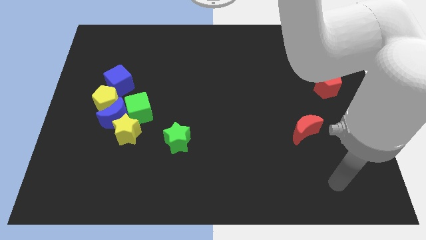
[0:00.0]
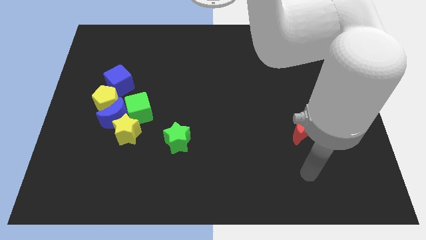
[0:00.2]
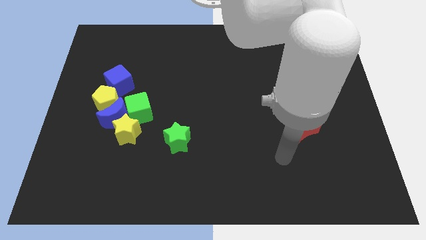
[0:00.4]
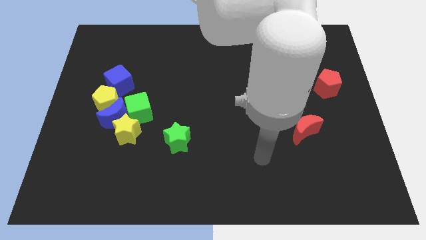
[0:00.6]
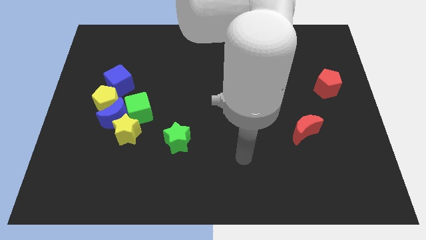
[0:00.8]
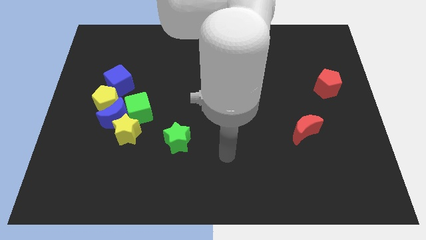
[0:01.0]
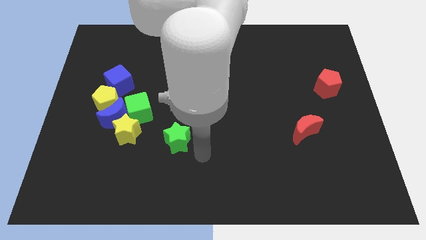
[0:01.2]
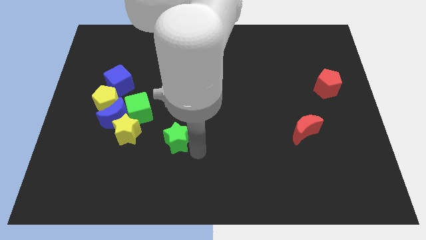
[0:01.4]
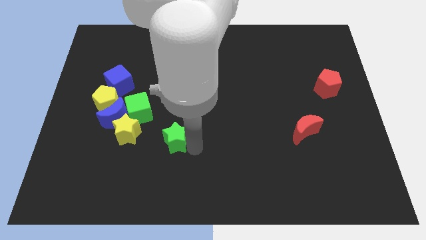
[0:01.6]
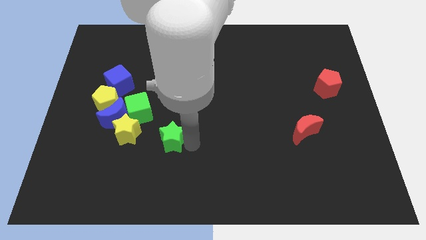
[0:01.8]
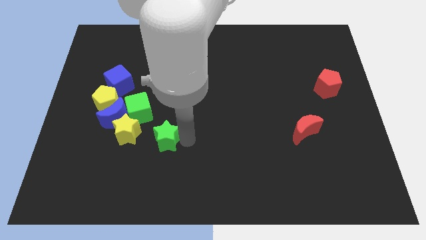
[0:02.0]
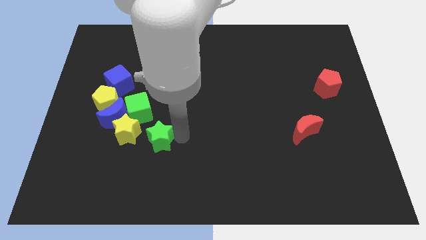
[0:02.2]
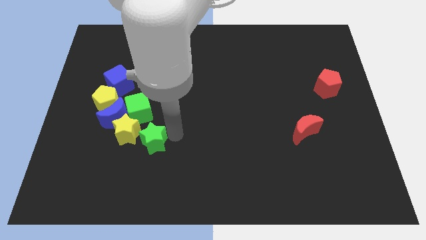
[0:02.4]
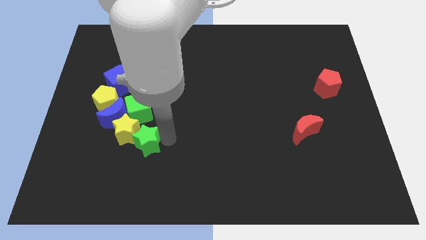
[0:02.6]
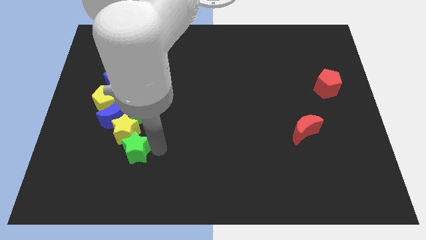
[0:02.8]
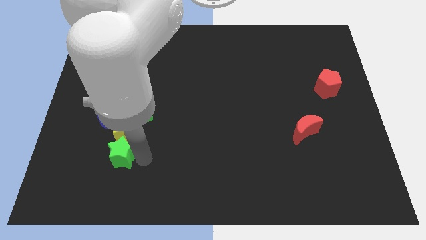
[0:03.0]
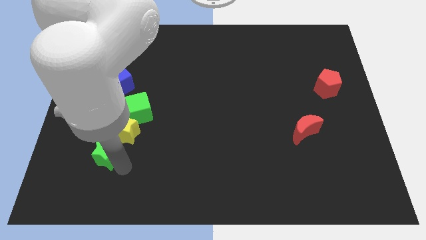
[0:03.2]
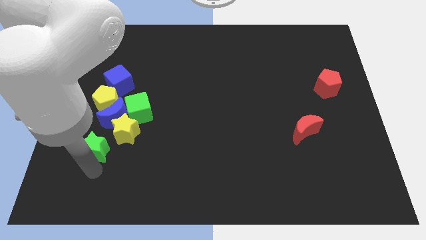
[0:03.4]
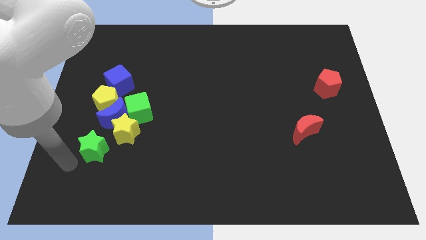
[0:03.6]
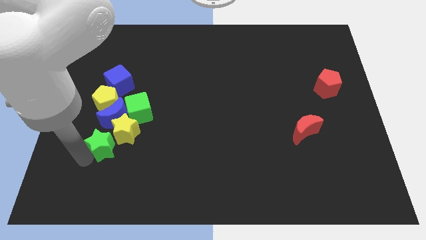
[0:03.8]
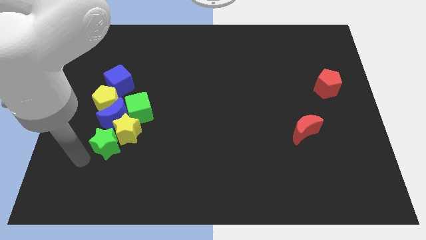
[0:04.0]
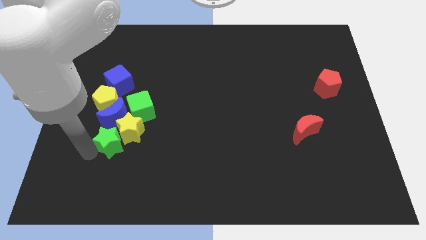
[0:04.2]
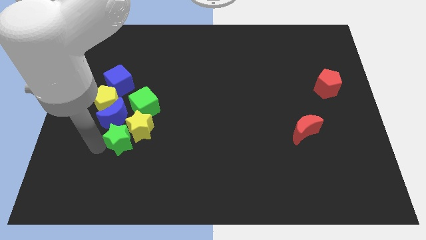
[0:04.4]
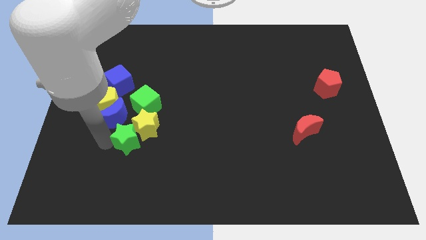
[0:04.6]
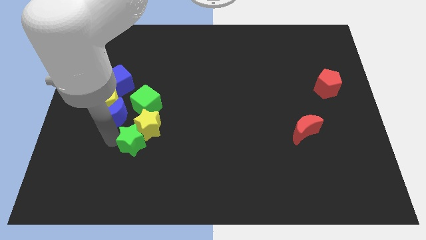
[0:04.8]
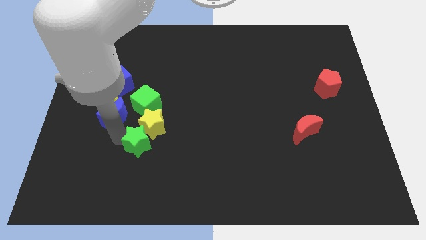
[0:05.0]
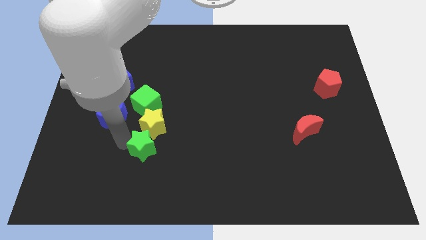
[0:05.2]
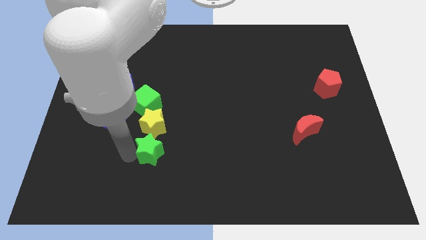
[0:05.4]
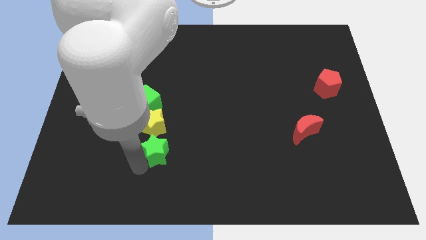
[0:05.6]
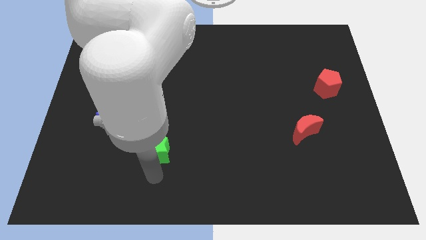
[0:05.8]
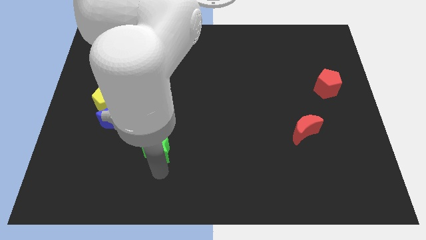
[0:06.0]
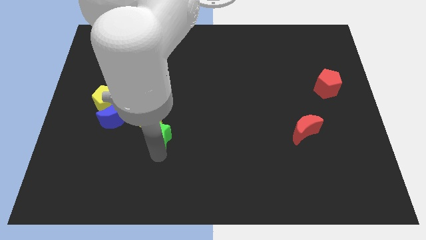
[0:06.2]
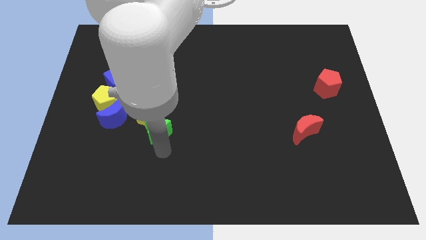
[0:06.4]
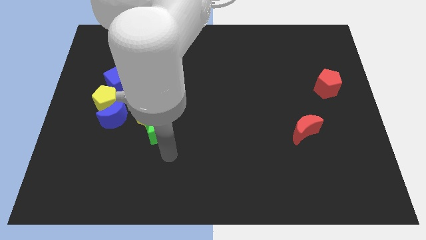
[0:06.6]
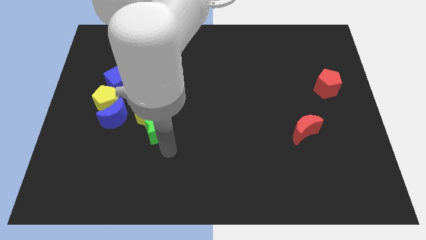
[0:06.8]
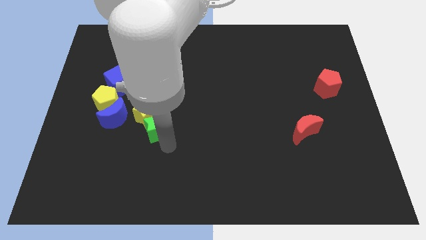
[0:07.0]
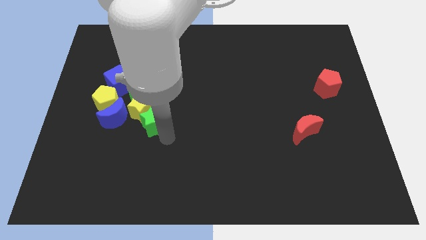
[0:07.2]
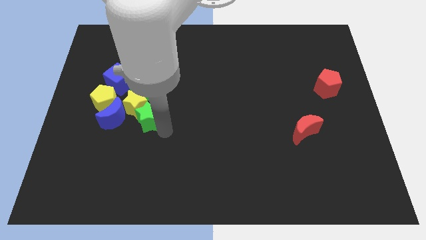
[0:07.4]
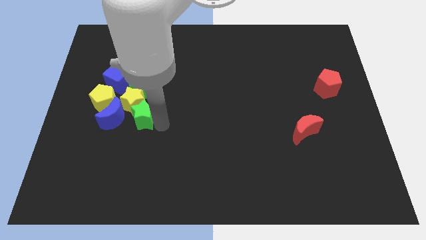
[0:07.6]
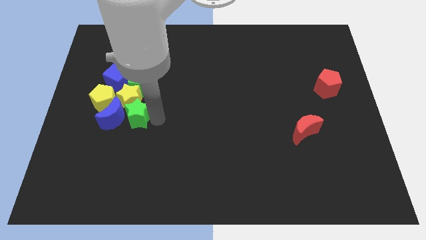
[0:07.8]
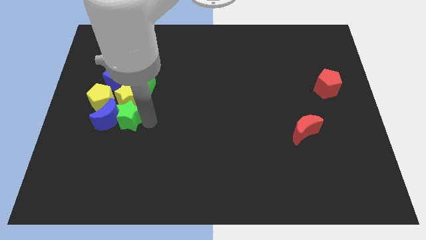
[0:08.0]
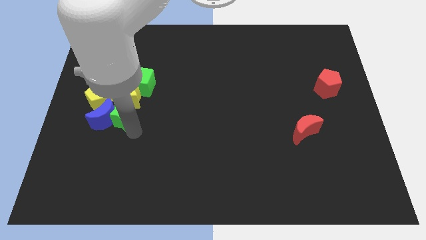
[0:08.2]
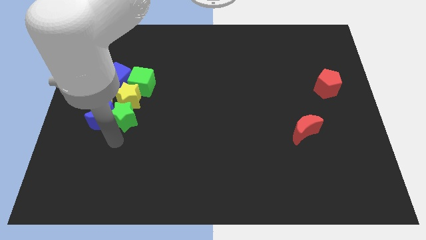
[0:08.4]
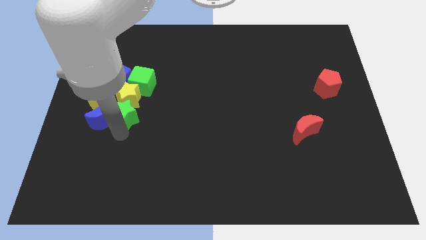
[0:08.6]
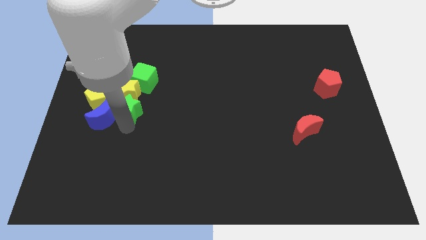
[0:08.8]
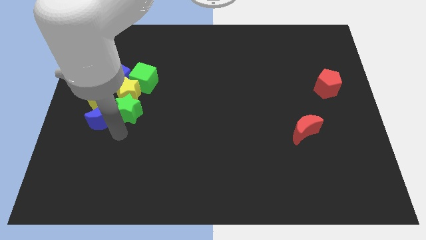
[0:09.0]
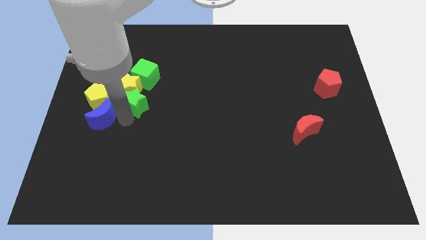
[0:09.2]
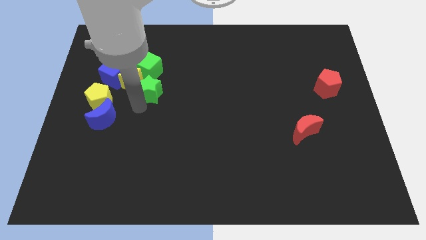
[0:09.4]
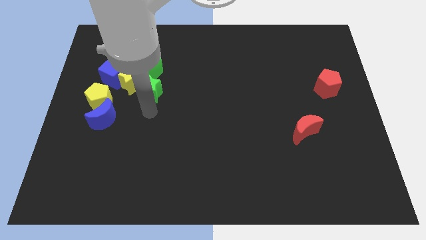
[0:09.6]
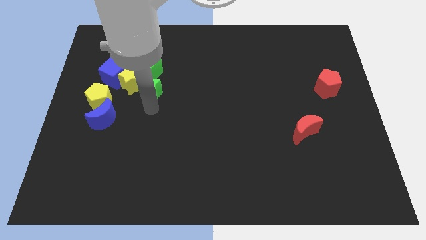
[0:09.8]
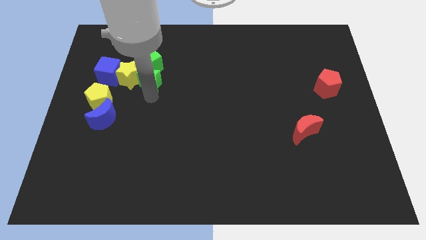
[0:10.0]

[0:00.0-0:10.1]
move the green star to the green cube

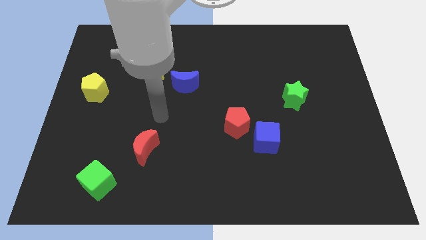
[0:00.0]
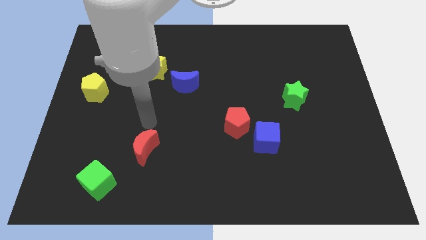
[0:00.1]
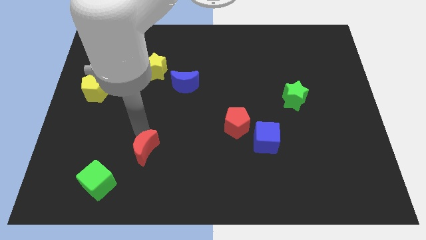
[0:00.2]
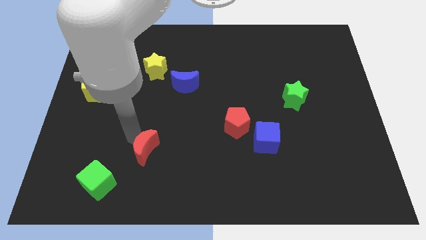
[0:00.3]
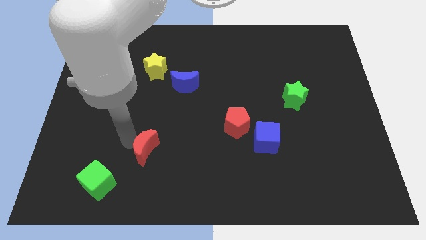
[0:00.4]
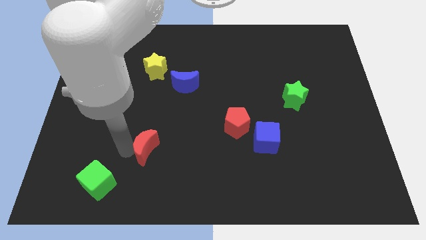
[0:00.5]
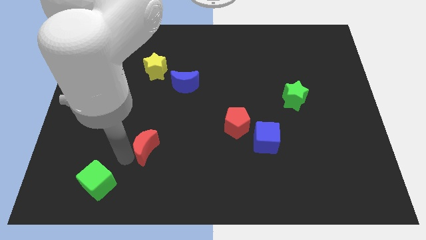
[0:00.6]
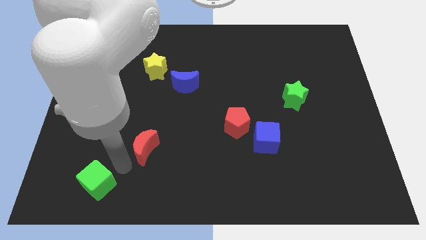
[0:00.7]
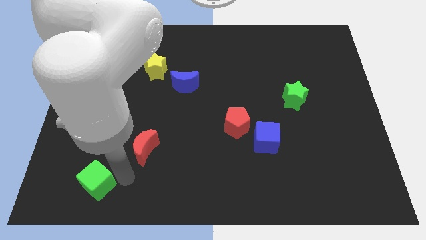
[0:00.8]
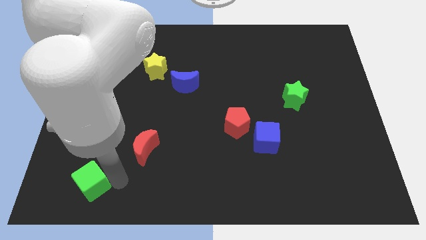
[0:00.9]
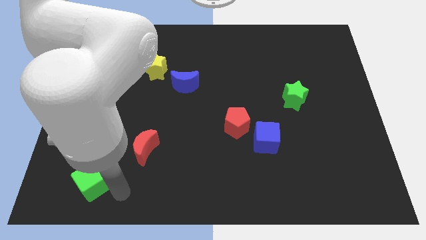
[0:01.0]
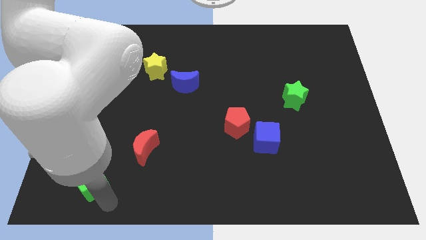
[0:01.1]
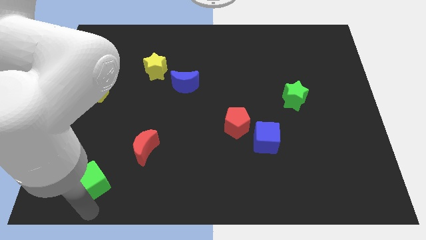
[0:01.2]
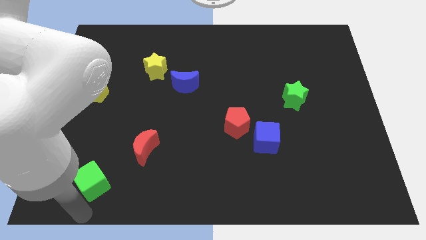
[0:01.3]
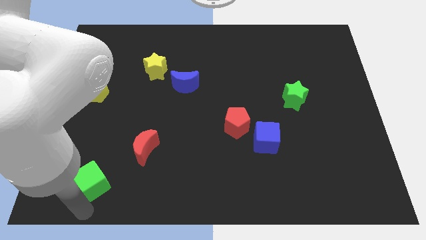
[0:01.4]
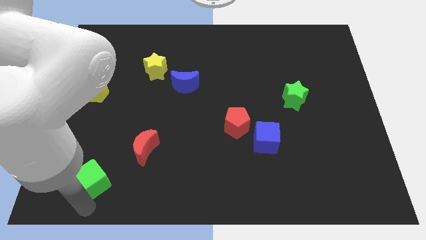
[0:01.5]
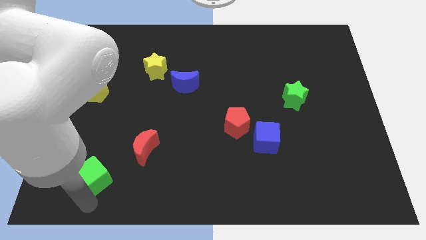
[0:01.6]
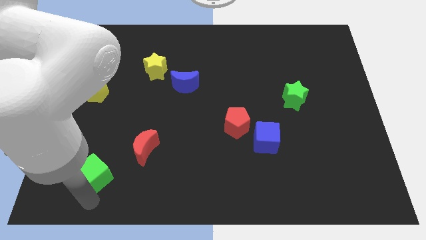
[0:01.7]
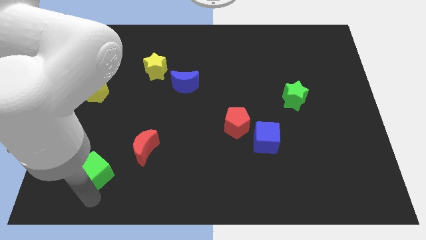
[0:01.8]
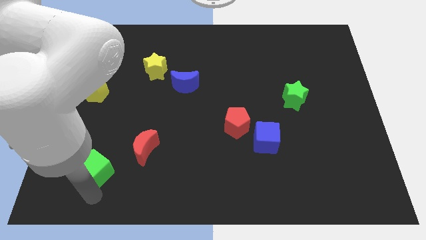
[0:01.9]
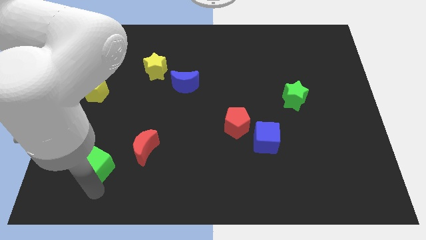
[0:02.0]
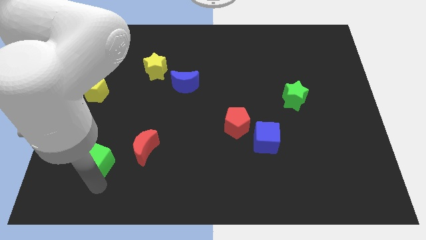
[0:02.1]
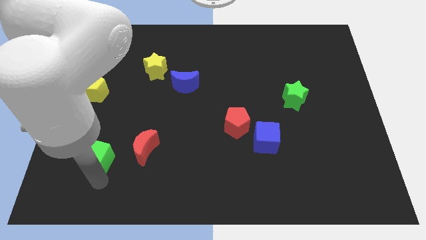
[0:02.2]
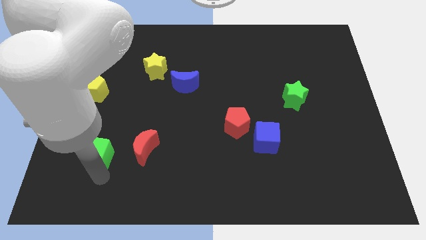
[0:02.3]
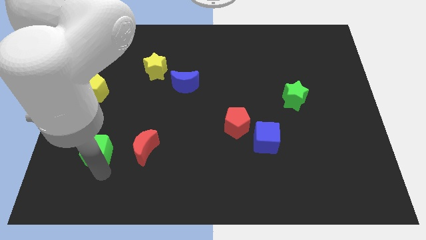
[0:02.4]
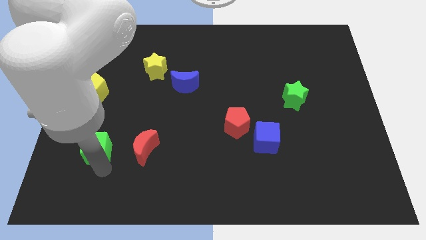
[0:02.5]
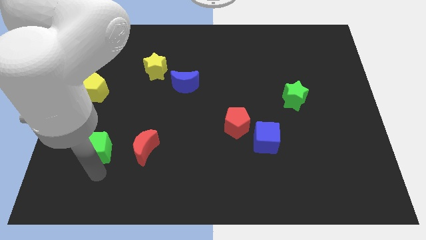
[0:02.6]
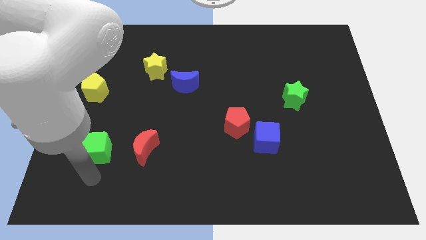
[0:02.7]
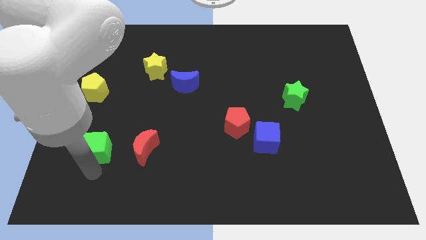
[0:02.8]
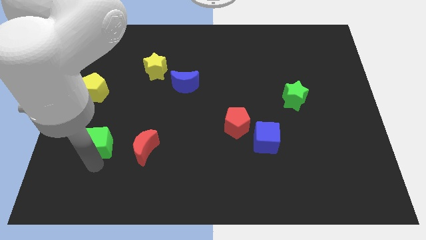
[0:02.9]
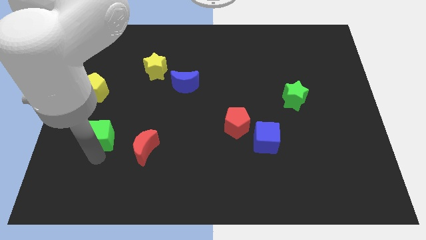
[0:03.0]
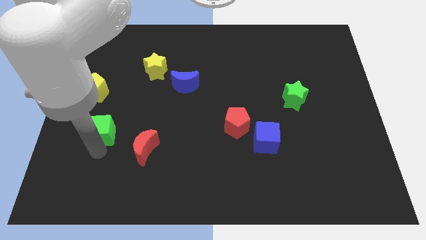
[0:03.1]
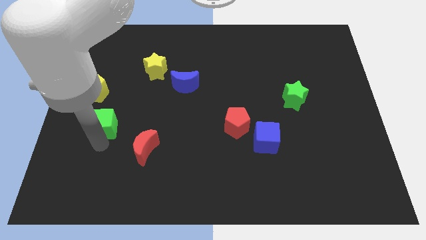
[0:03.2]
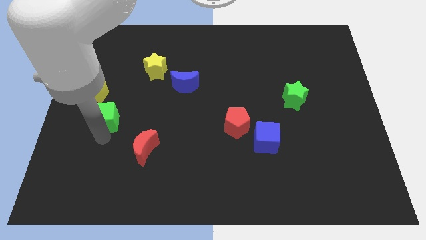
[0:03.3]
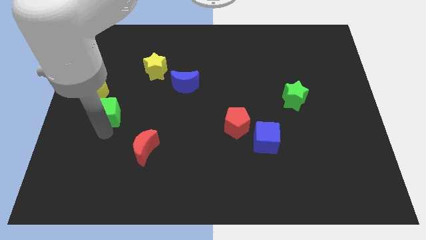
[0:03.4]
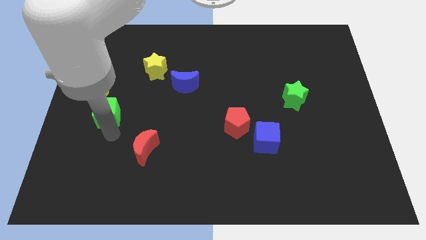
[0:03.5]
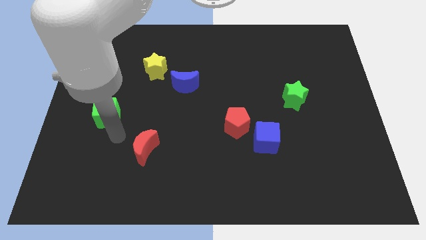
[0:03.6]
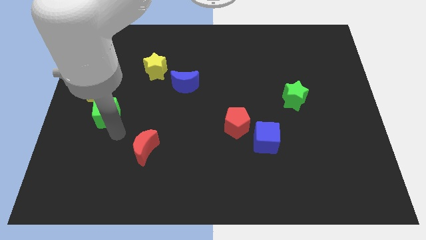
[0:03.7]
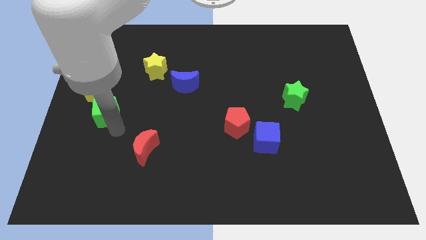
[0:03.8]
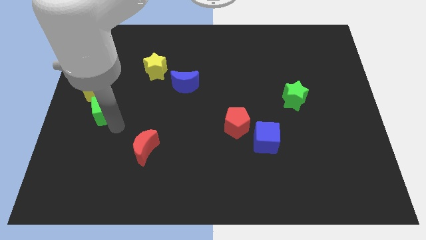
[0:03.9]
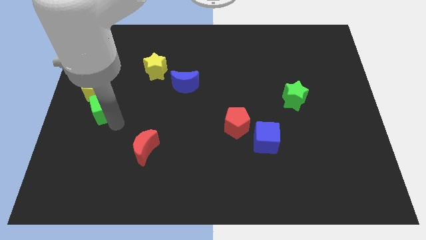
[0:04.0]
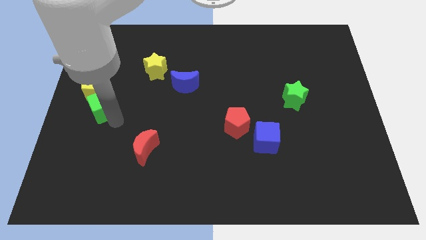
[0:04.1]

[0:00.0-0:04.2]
move the green cube close to the yellow pentagon
